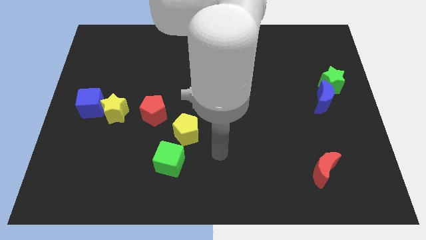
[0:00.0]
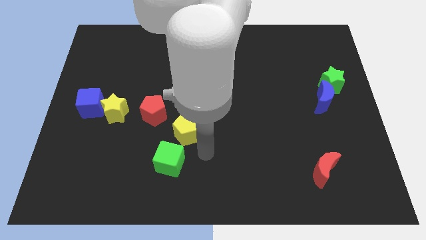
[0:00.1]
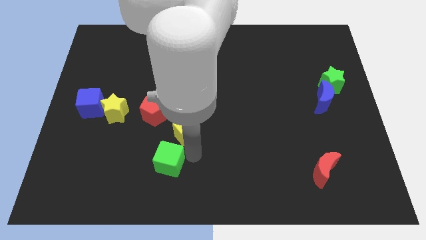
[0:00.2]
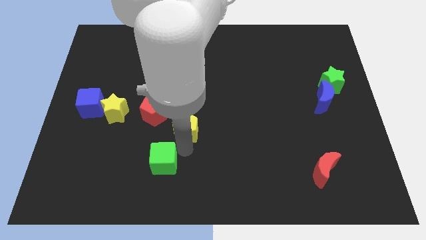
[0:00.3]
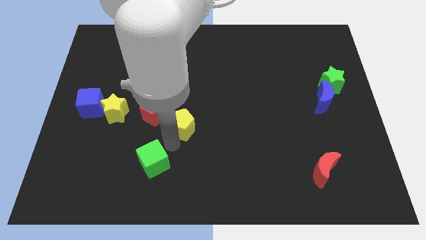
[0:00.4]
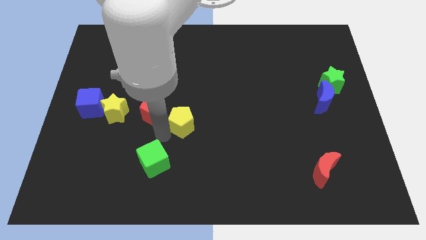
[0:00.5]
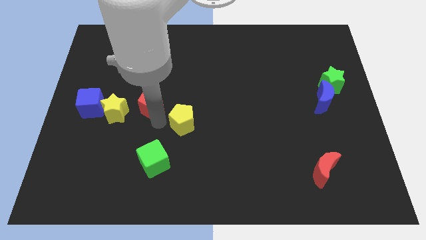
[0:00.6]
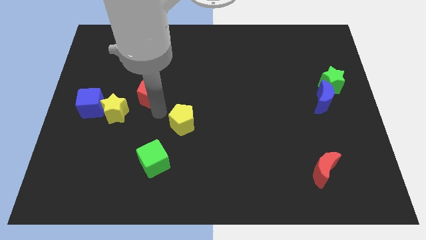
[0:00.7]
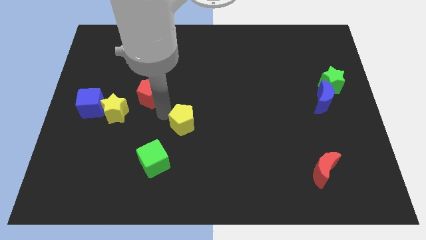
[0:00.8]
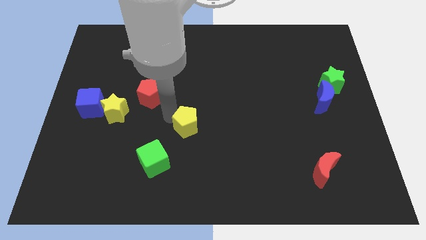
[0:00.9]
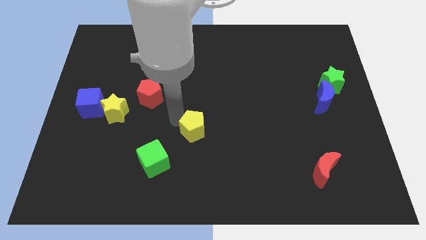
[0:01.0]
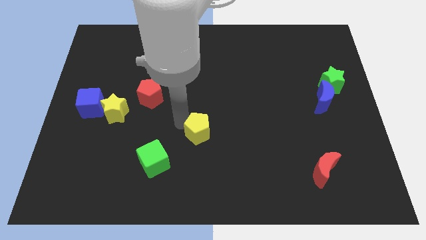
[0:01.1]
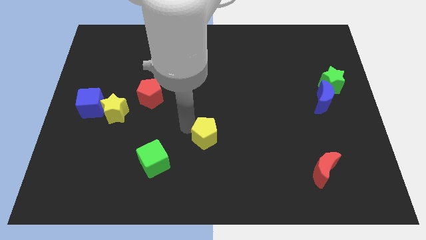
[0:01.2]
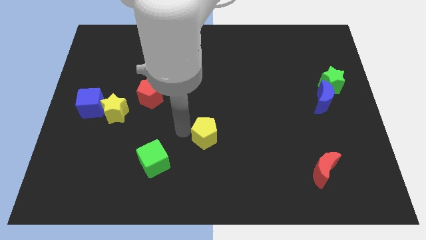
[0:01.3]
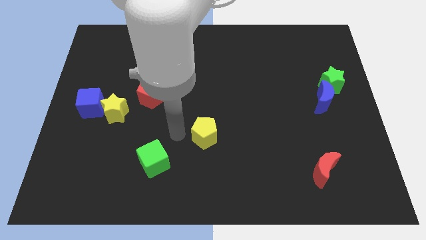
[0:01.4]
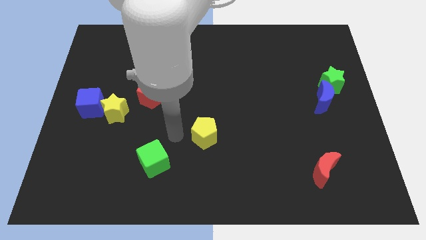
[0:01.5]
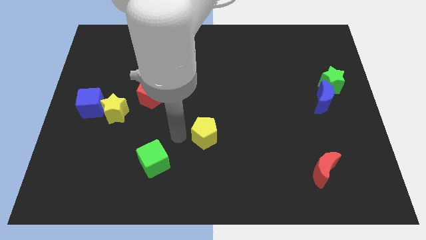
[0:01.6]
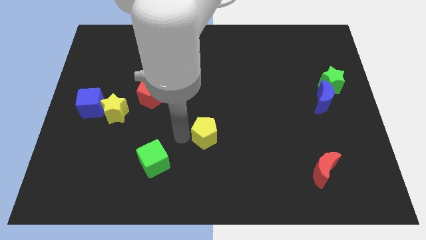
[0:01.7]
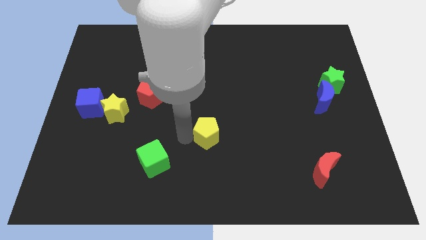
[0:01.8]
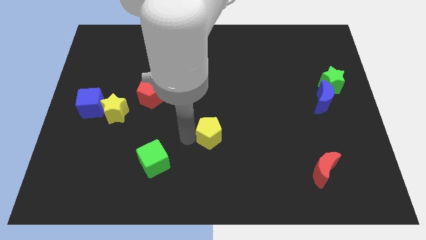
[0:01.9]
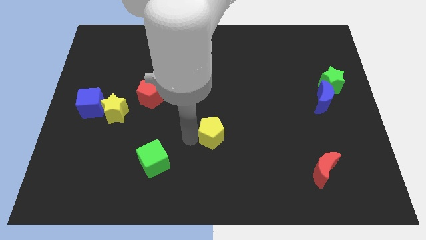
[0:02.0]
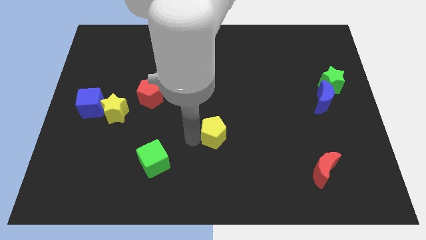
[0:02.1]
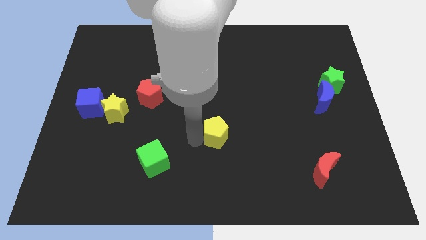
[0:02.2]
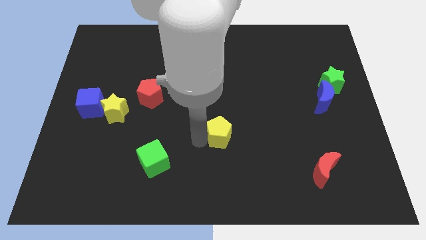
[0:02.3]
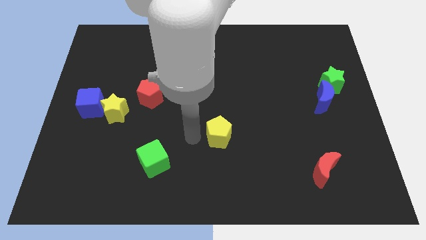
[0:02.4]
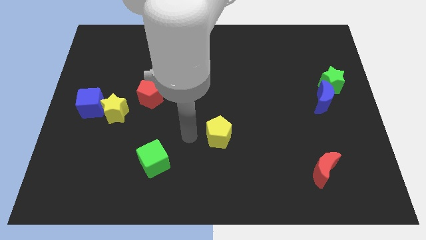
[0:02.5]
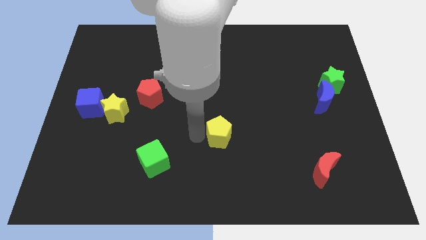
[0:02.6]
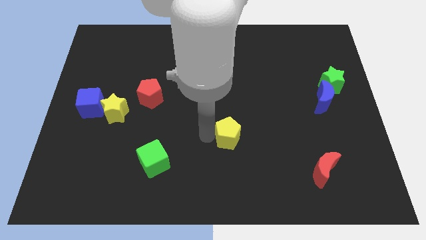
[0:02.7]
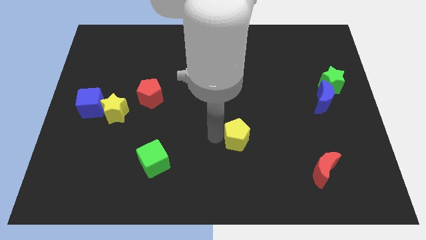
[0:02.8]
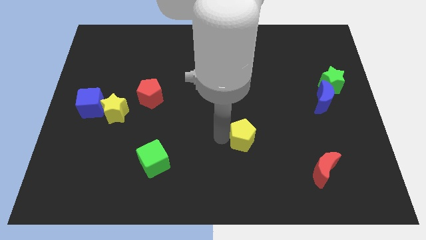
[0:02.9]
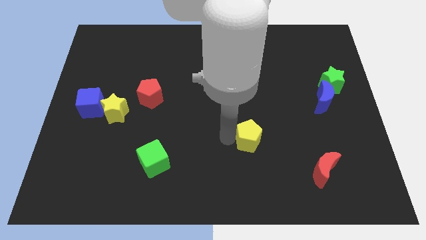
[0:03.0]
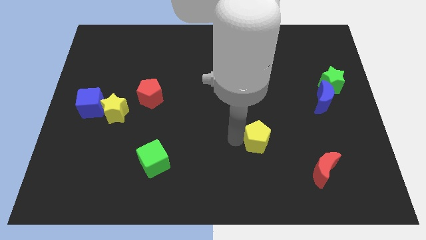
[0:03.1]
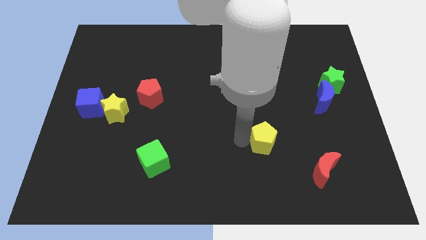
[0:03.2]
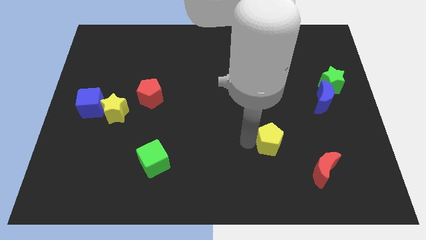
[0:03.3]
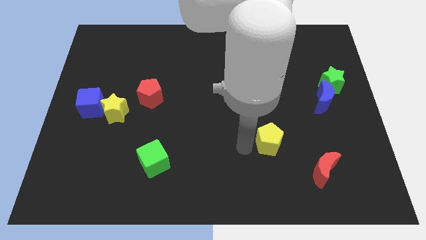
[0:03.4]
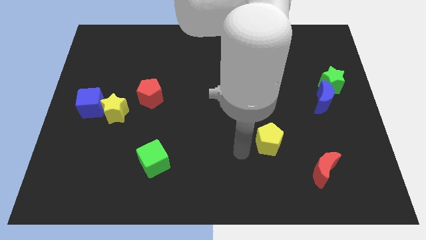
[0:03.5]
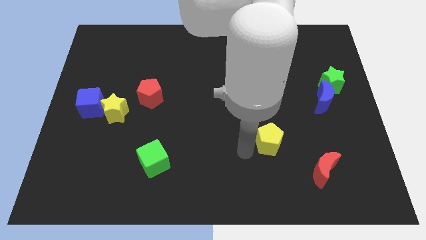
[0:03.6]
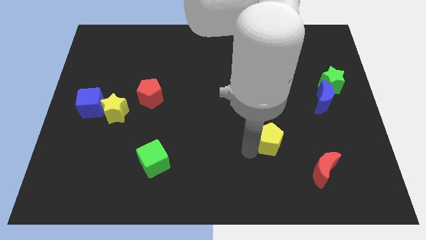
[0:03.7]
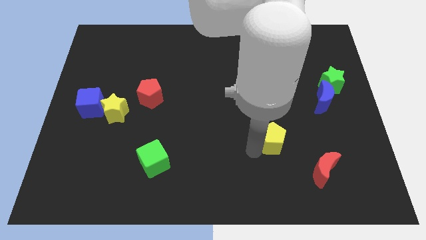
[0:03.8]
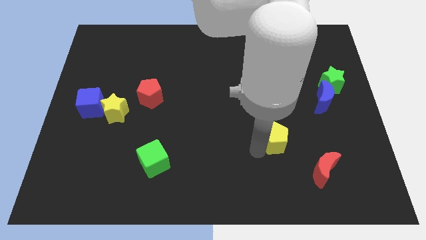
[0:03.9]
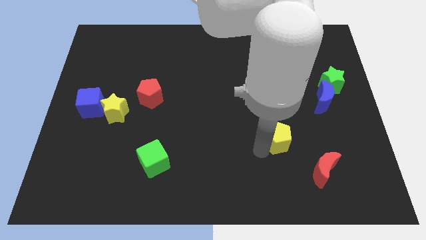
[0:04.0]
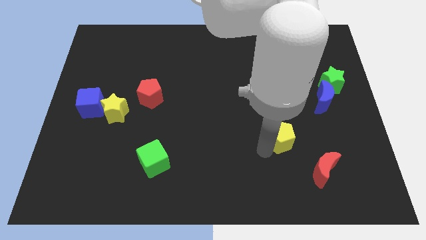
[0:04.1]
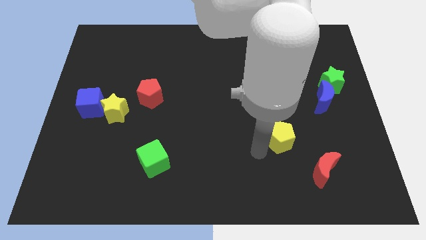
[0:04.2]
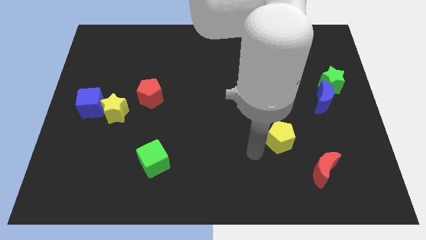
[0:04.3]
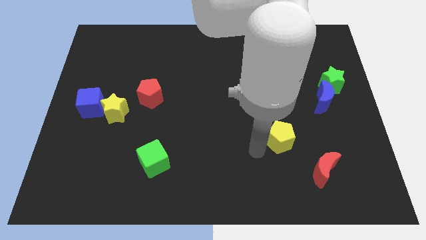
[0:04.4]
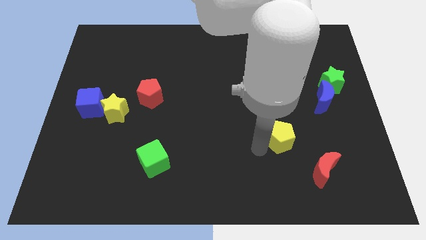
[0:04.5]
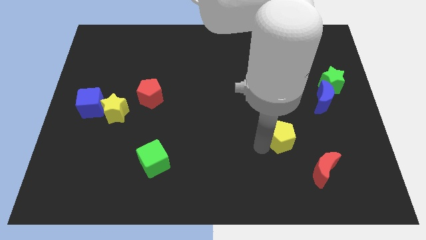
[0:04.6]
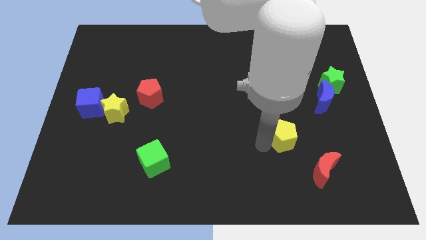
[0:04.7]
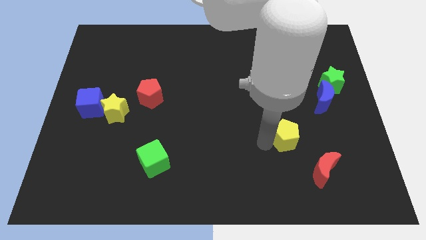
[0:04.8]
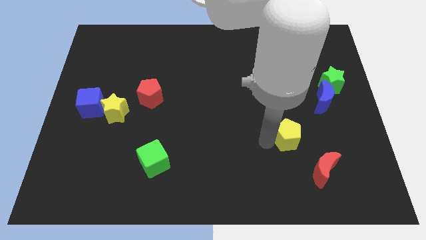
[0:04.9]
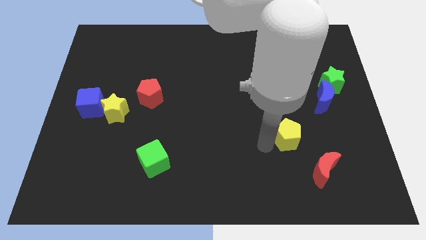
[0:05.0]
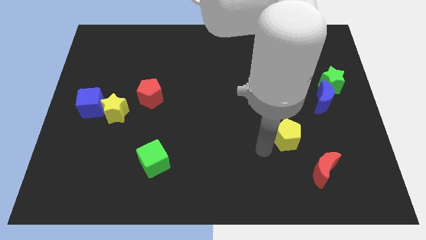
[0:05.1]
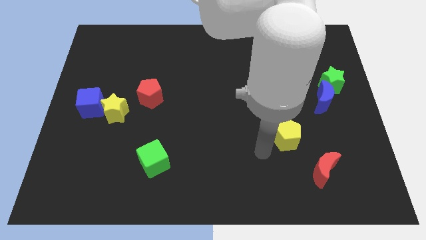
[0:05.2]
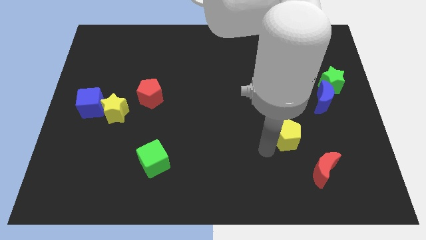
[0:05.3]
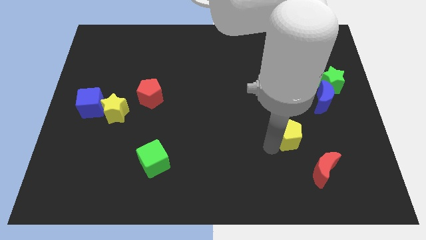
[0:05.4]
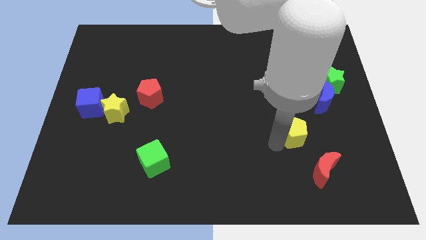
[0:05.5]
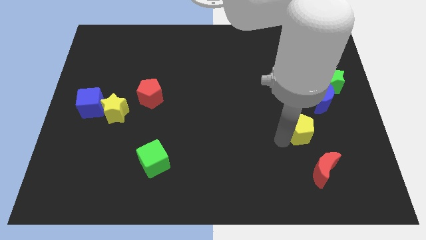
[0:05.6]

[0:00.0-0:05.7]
slide the yellow pentagon above the red moon

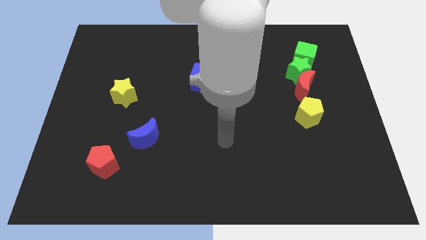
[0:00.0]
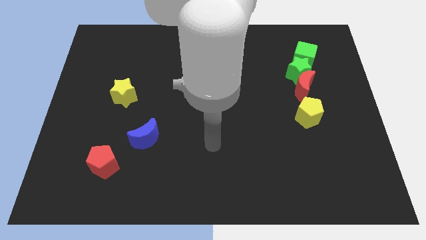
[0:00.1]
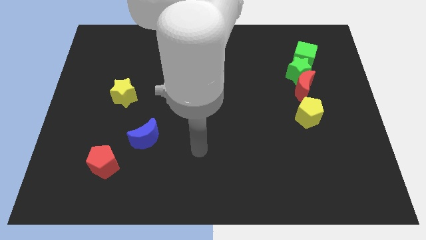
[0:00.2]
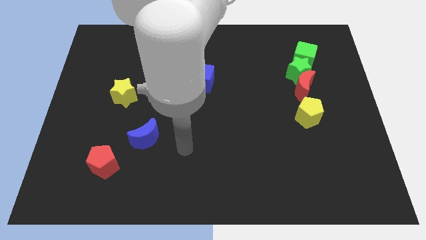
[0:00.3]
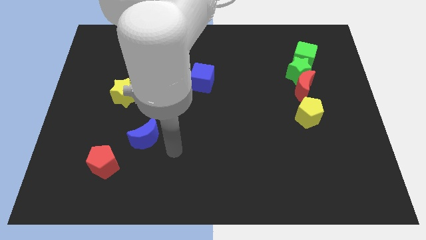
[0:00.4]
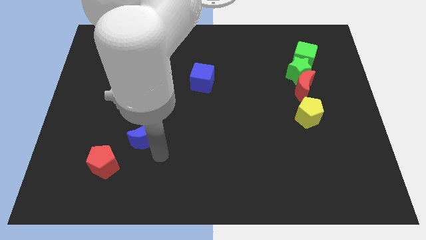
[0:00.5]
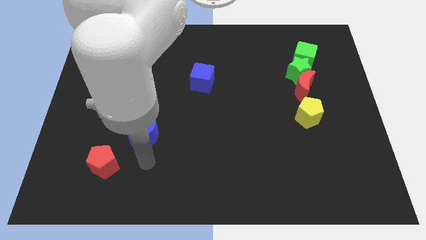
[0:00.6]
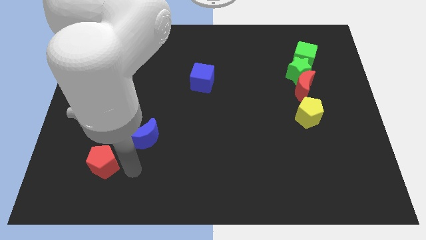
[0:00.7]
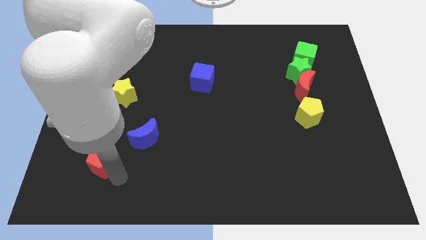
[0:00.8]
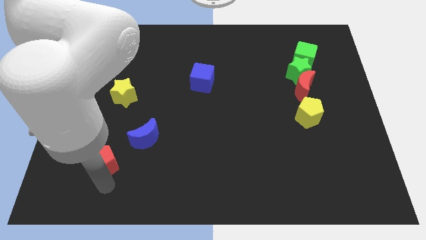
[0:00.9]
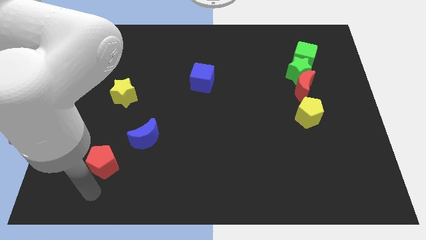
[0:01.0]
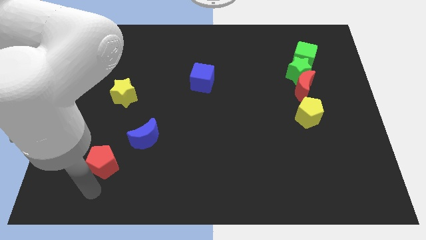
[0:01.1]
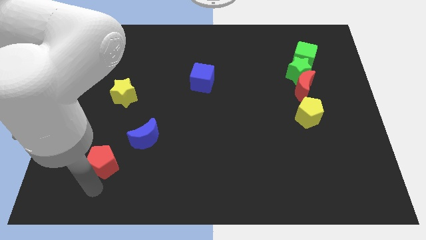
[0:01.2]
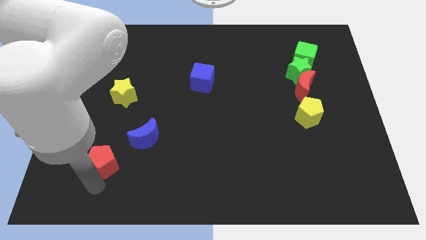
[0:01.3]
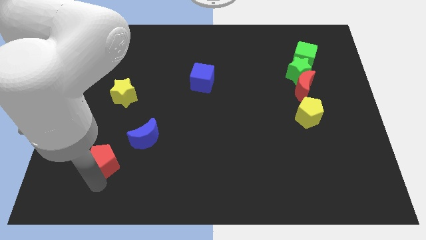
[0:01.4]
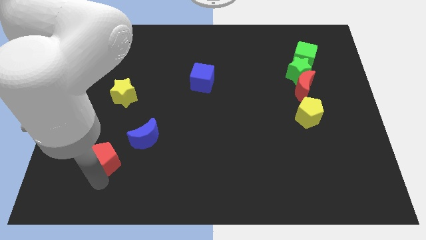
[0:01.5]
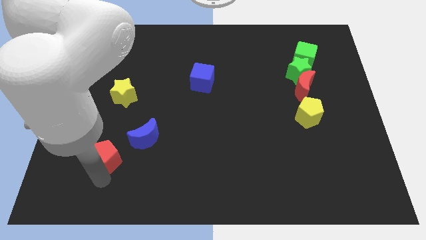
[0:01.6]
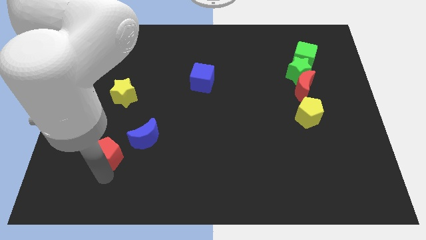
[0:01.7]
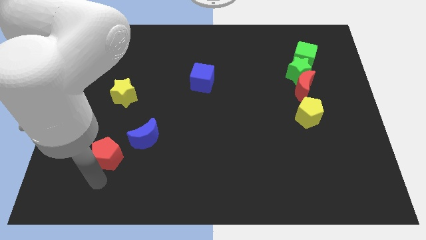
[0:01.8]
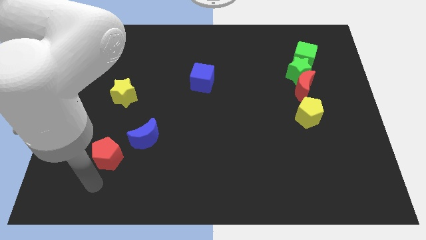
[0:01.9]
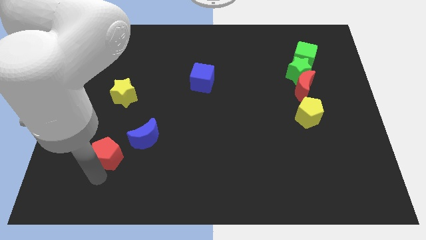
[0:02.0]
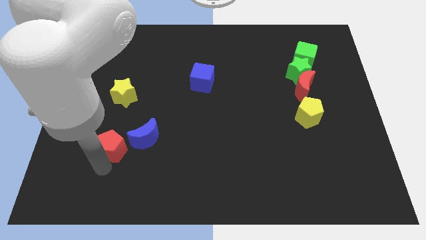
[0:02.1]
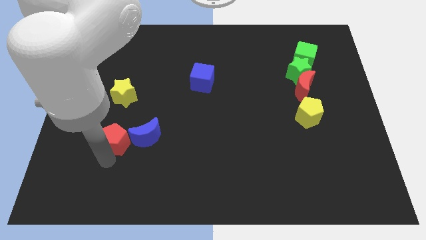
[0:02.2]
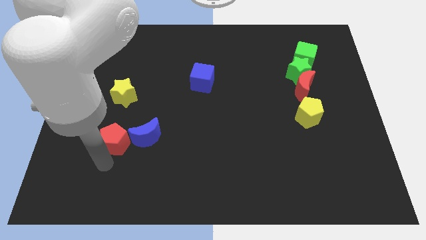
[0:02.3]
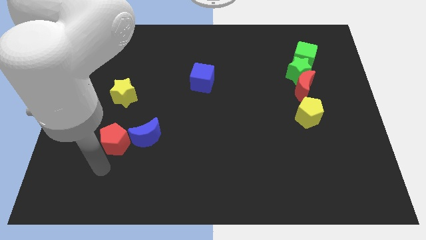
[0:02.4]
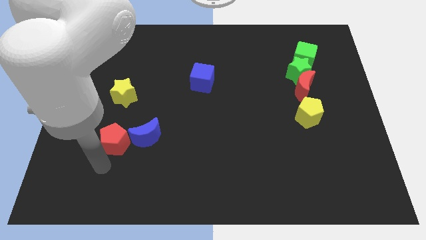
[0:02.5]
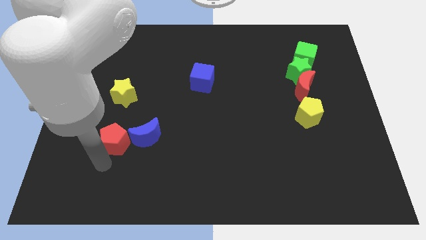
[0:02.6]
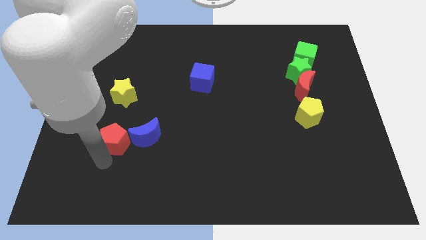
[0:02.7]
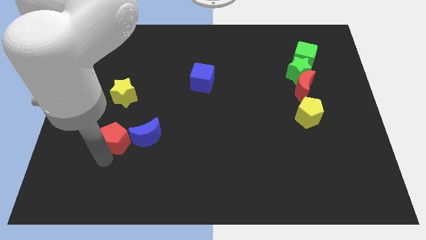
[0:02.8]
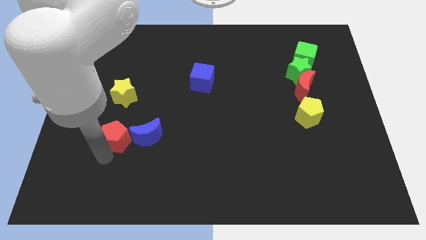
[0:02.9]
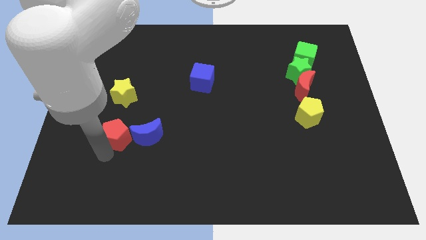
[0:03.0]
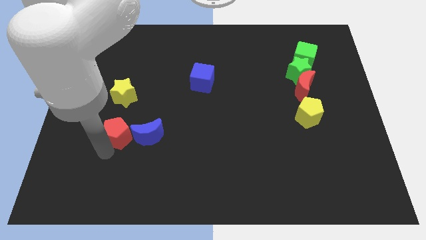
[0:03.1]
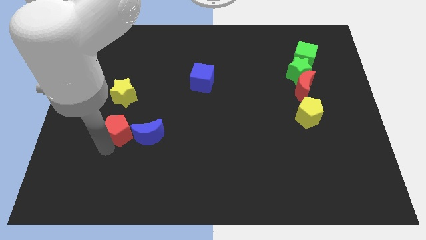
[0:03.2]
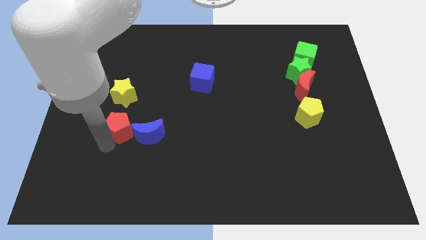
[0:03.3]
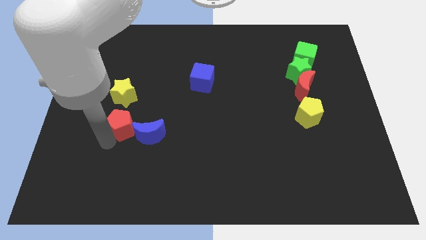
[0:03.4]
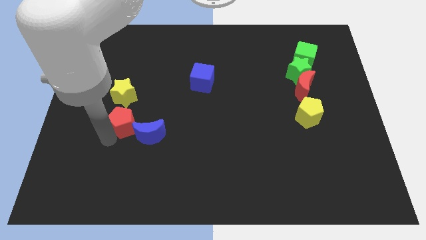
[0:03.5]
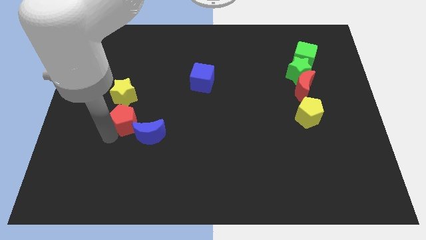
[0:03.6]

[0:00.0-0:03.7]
push the red pentagon to the bottom right side of the yellow star
